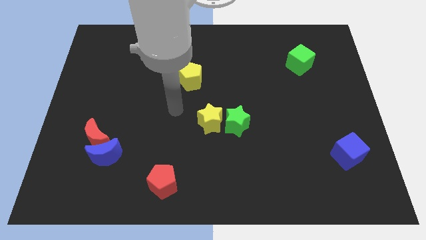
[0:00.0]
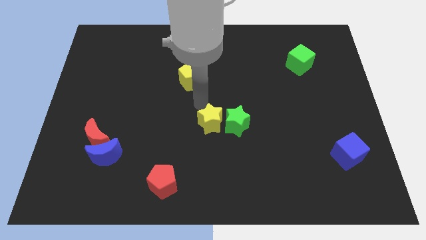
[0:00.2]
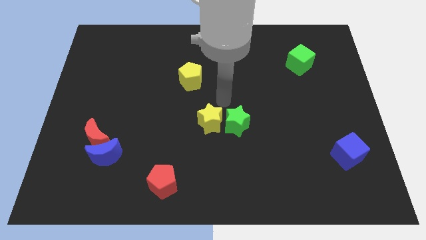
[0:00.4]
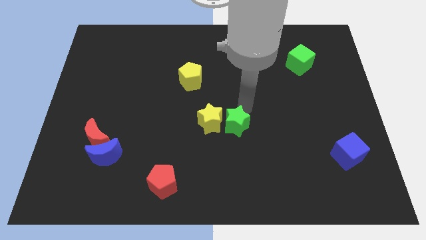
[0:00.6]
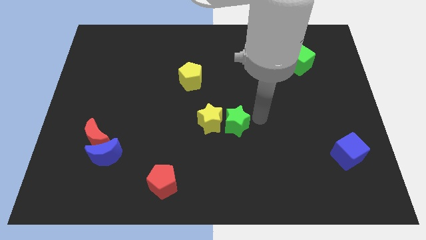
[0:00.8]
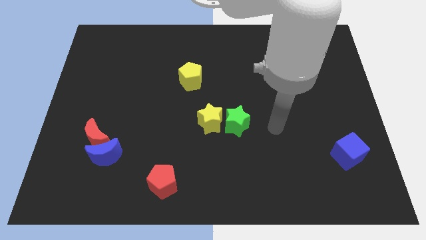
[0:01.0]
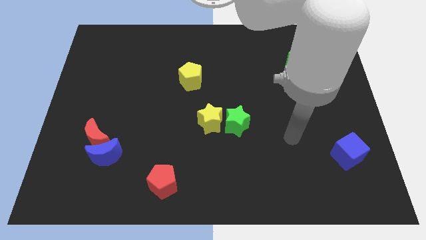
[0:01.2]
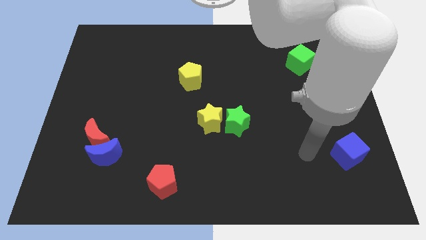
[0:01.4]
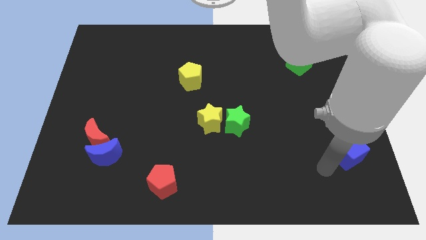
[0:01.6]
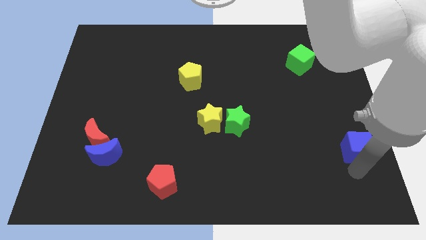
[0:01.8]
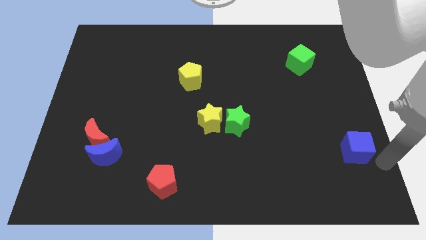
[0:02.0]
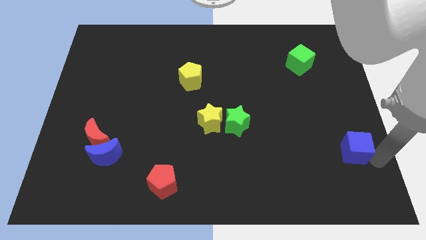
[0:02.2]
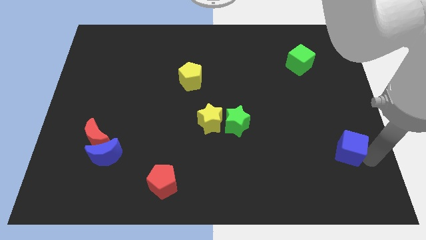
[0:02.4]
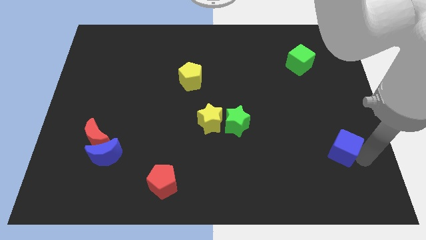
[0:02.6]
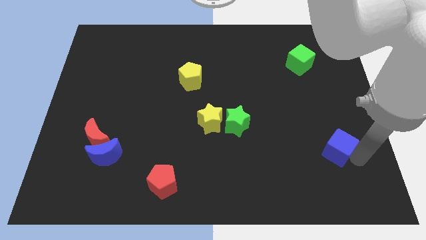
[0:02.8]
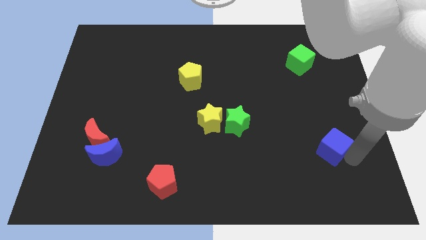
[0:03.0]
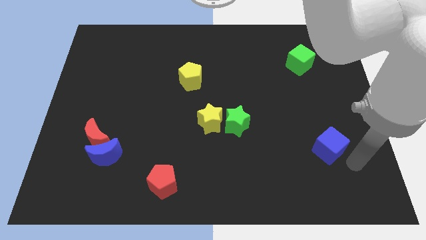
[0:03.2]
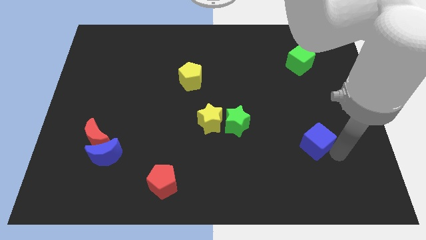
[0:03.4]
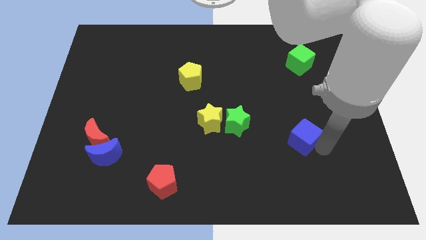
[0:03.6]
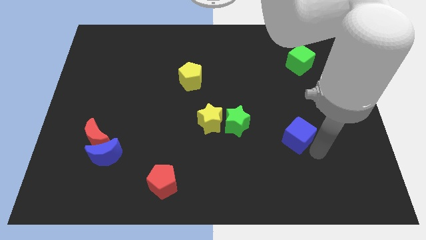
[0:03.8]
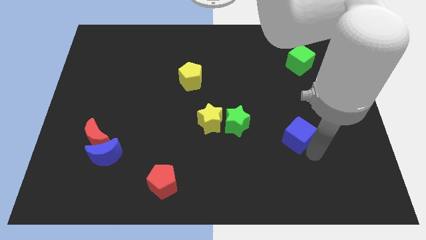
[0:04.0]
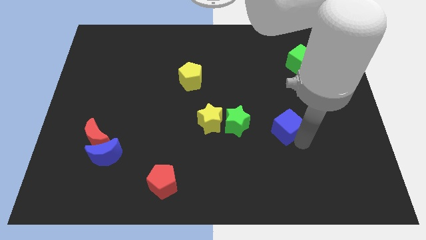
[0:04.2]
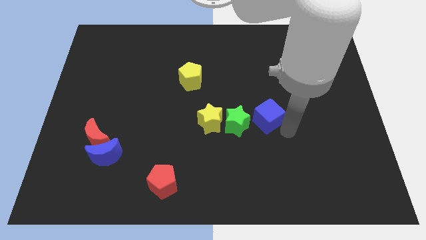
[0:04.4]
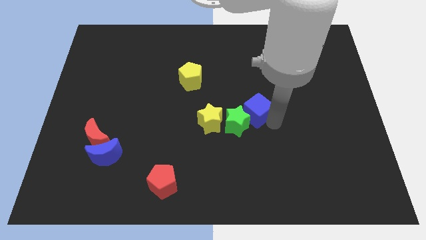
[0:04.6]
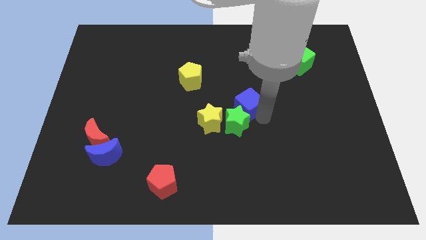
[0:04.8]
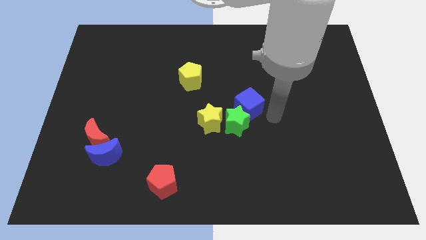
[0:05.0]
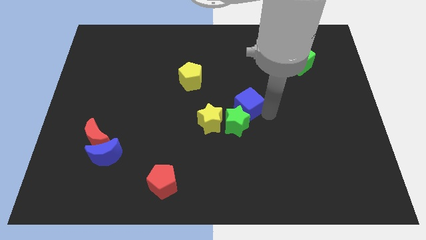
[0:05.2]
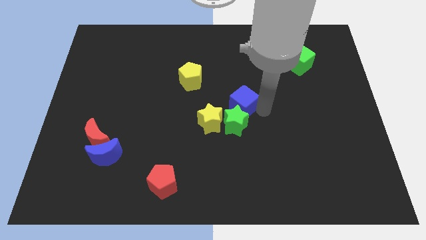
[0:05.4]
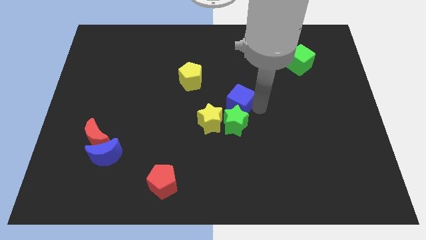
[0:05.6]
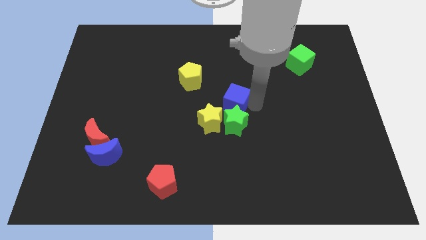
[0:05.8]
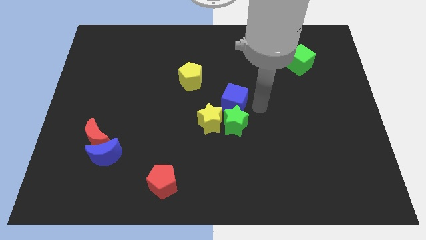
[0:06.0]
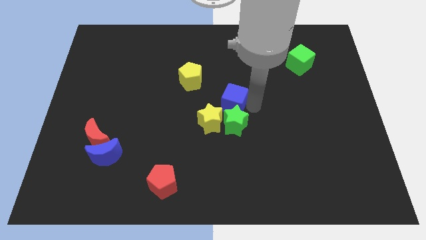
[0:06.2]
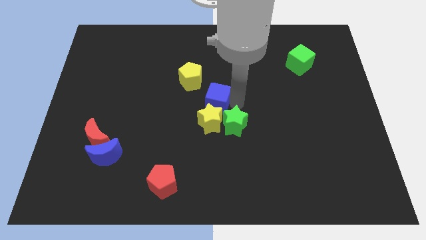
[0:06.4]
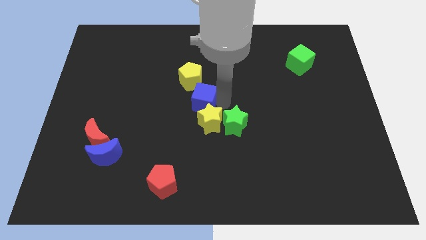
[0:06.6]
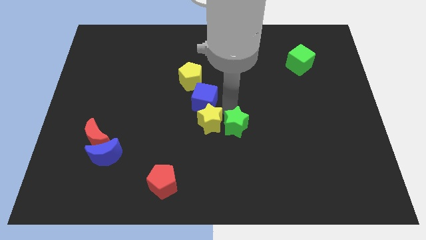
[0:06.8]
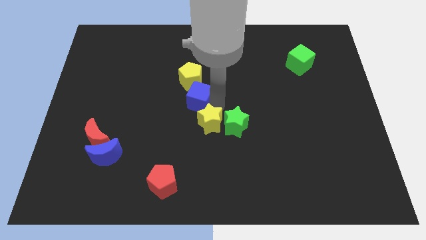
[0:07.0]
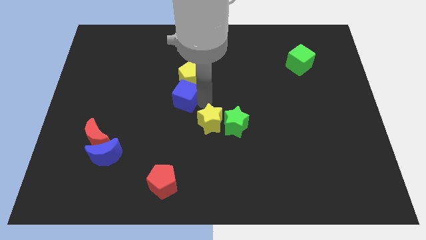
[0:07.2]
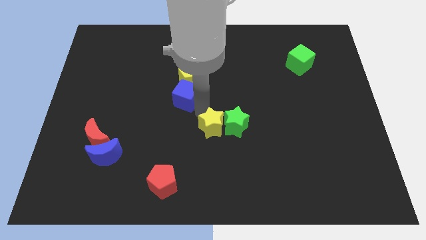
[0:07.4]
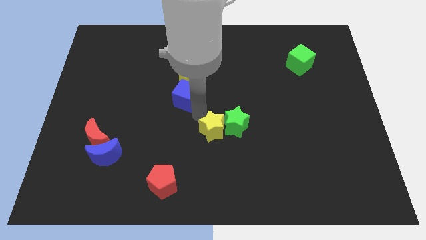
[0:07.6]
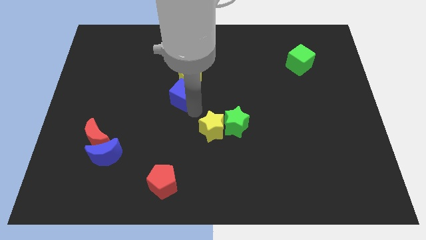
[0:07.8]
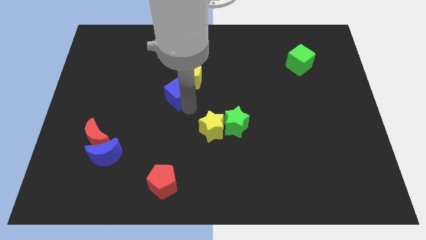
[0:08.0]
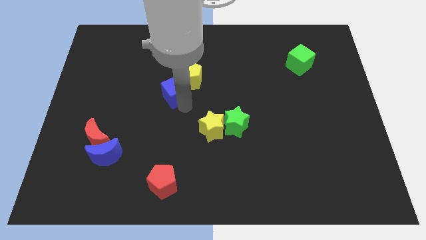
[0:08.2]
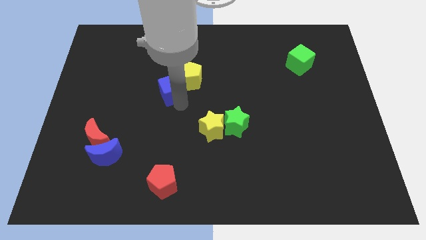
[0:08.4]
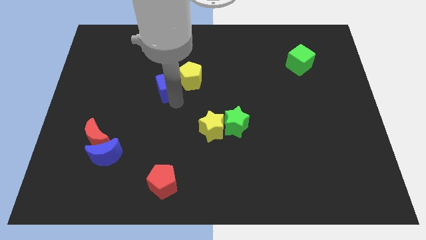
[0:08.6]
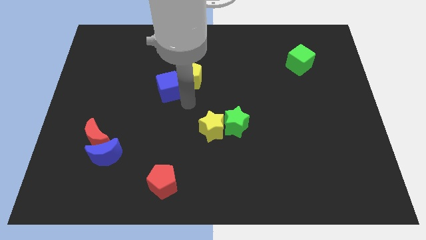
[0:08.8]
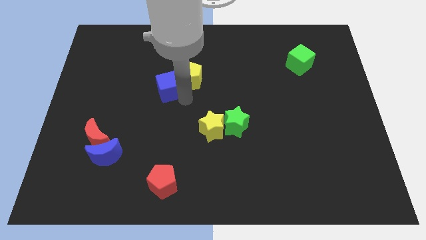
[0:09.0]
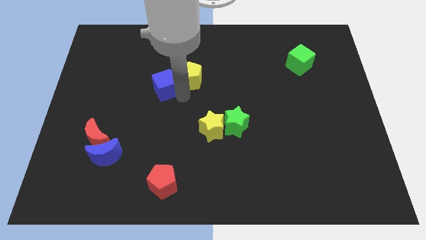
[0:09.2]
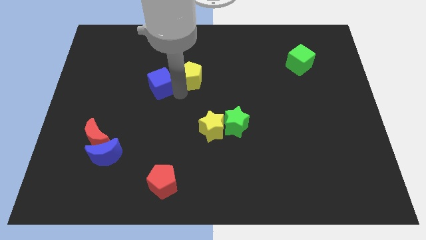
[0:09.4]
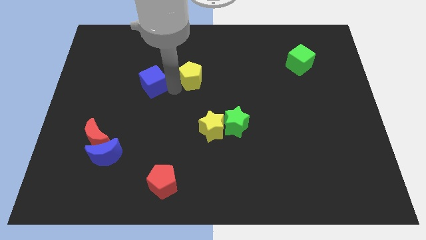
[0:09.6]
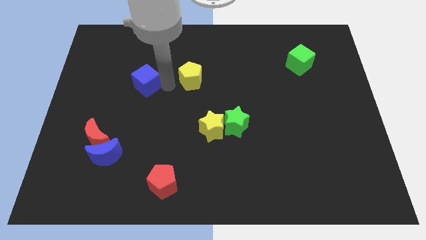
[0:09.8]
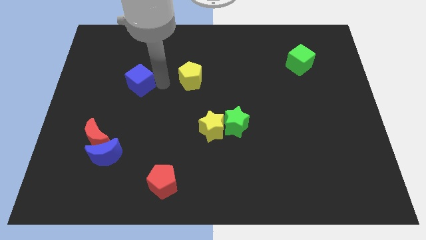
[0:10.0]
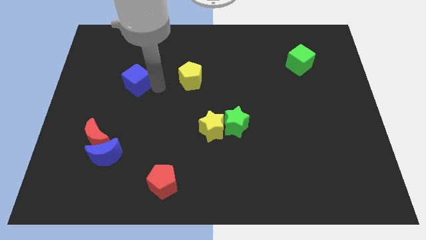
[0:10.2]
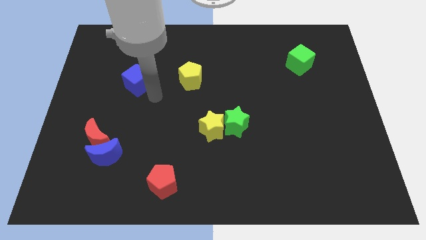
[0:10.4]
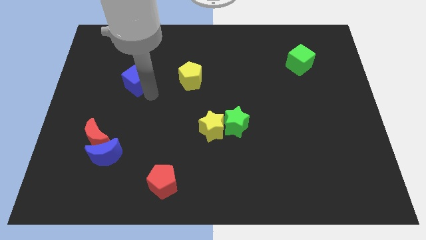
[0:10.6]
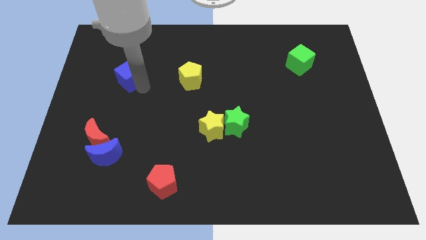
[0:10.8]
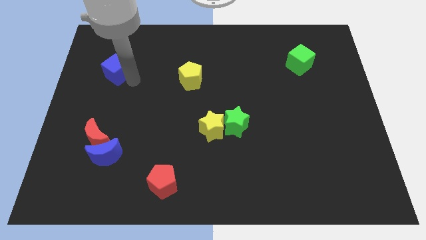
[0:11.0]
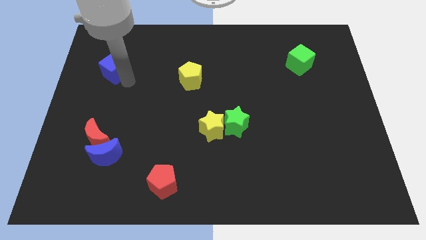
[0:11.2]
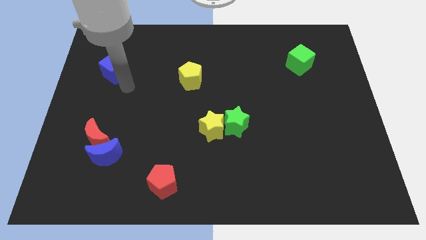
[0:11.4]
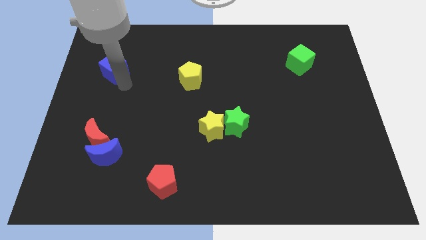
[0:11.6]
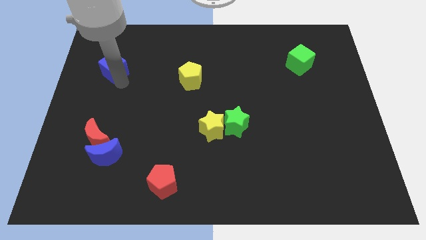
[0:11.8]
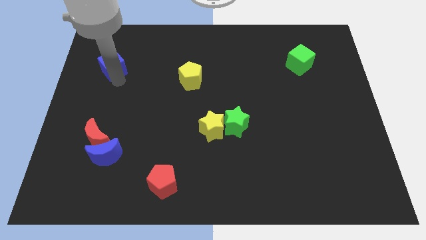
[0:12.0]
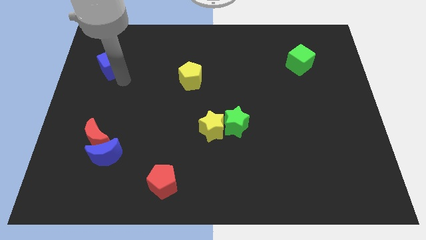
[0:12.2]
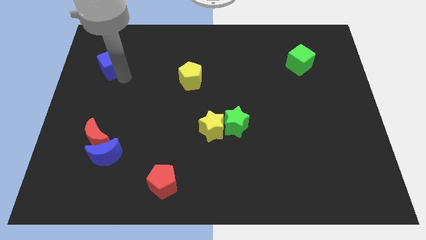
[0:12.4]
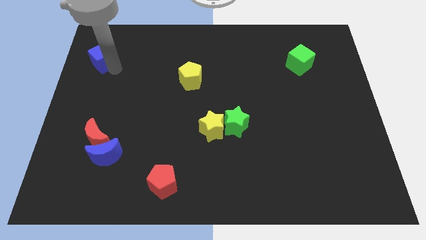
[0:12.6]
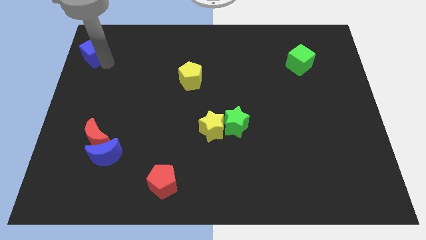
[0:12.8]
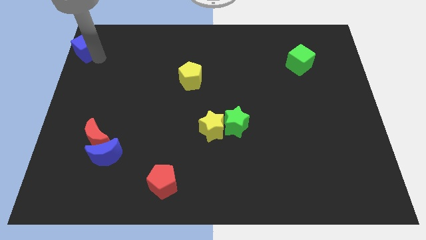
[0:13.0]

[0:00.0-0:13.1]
move the blue cube to the top left corner
